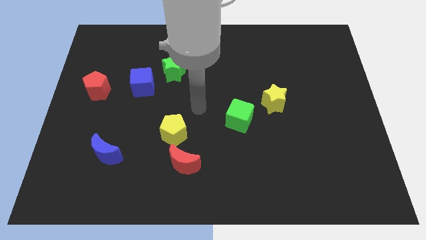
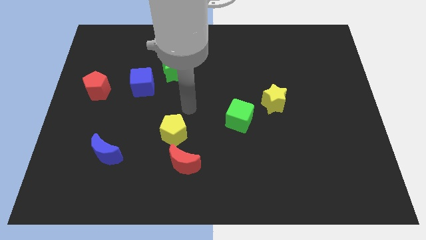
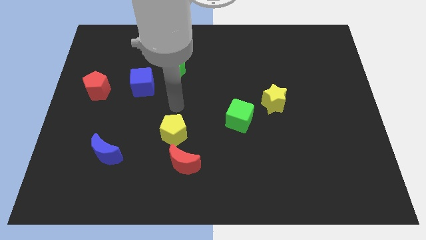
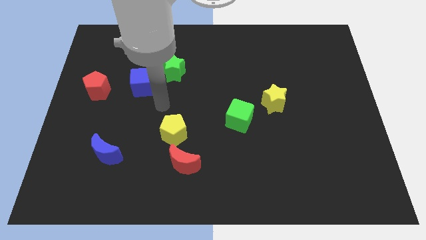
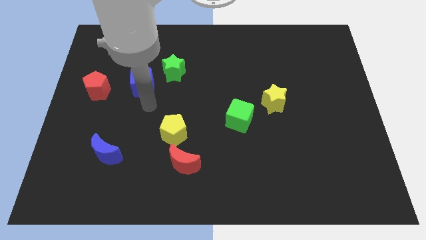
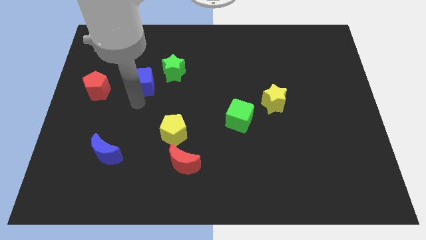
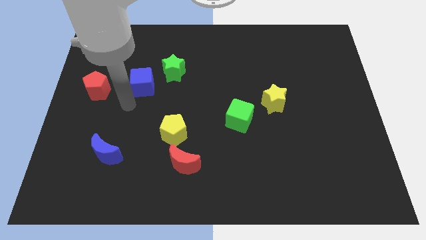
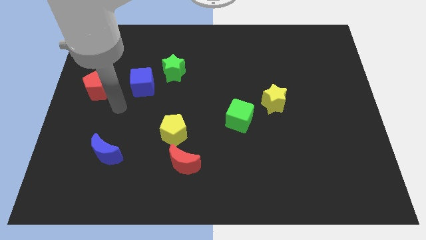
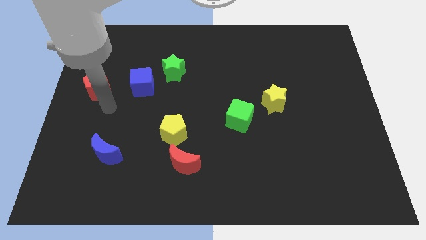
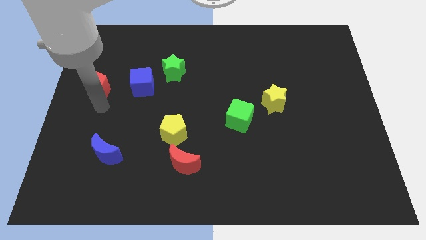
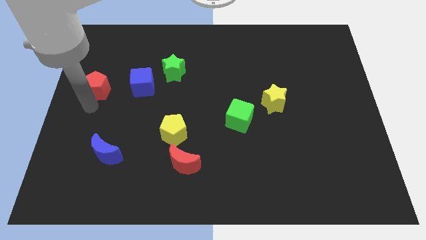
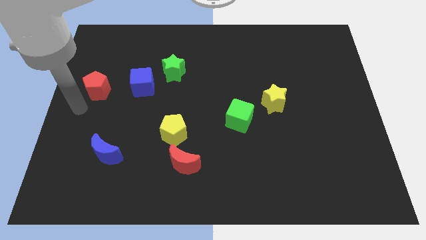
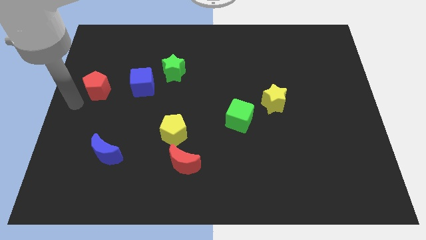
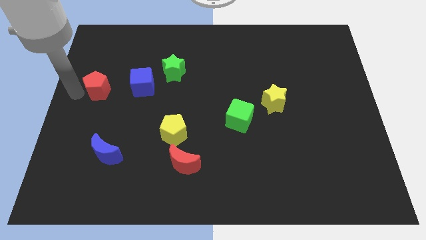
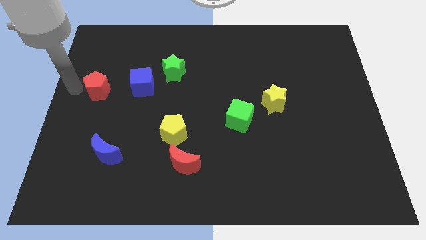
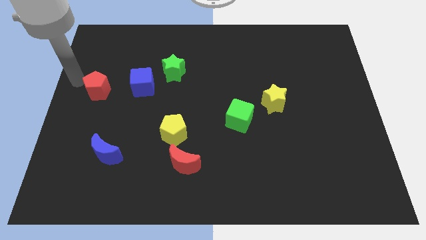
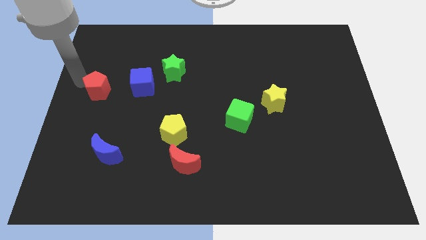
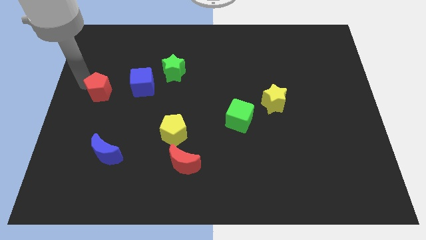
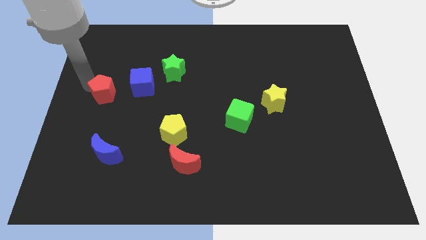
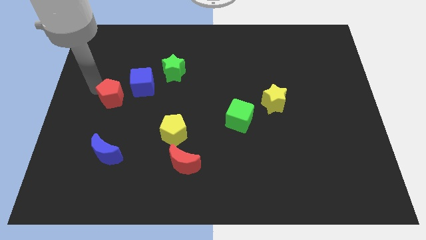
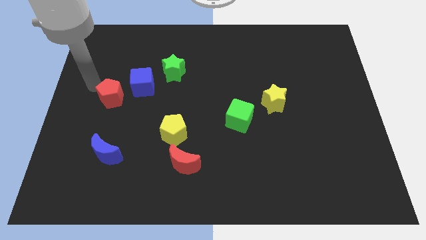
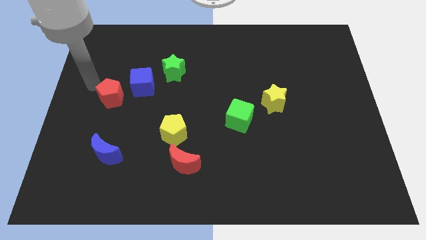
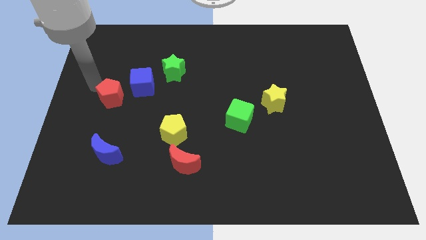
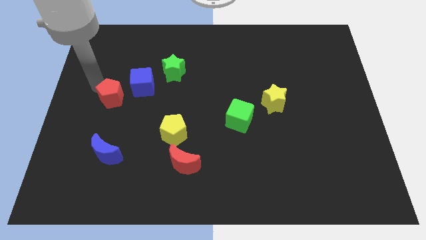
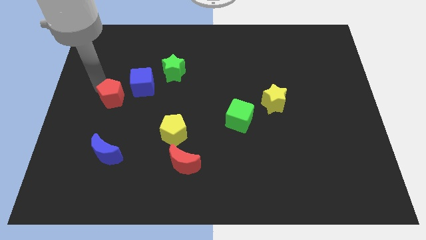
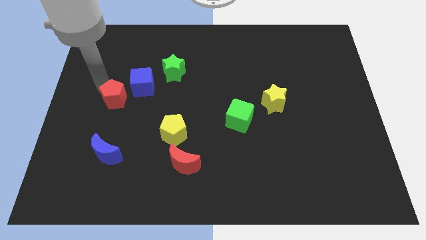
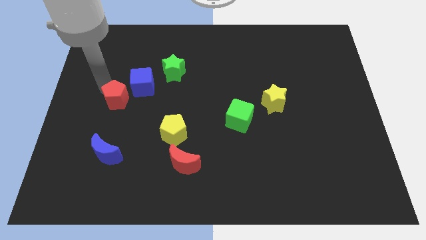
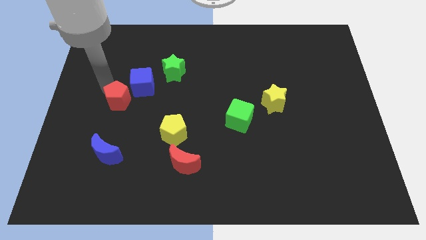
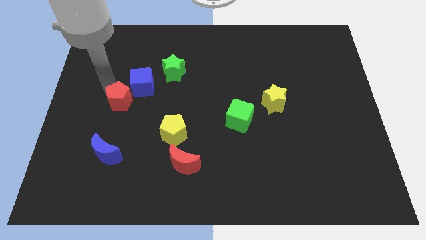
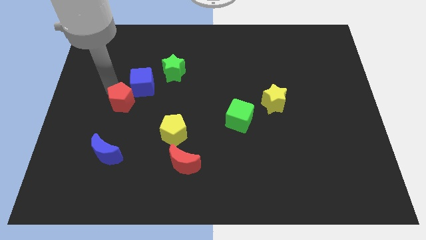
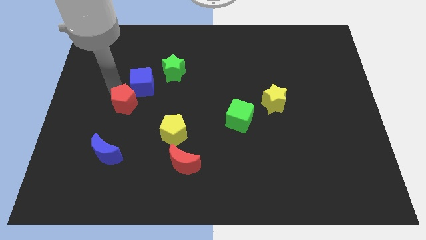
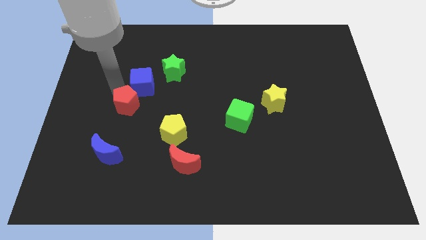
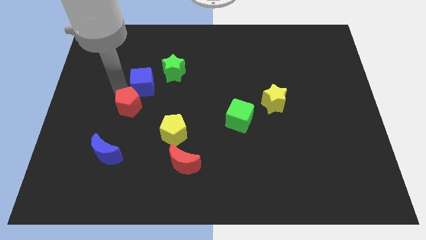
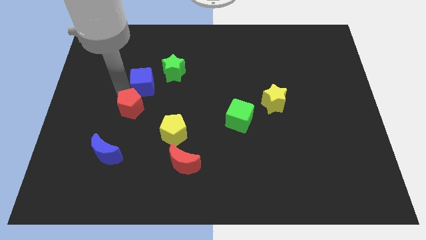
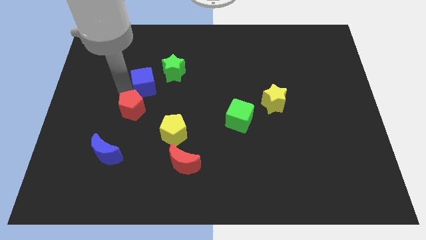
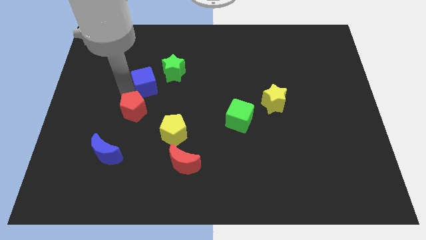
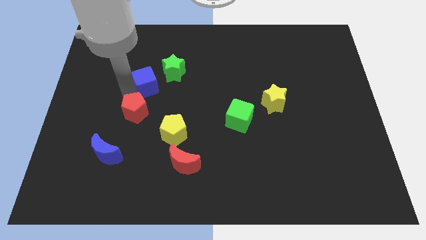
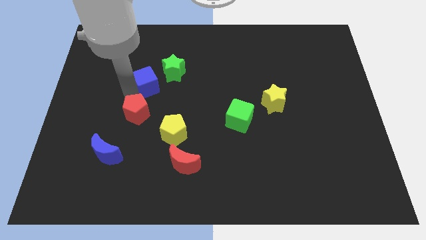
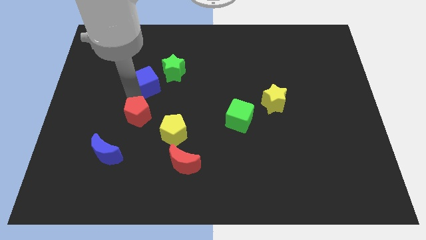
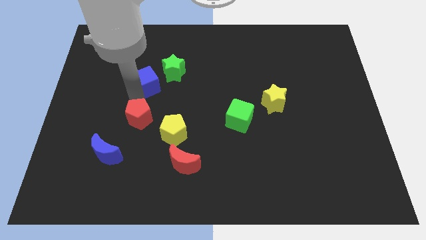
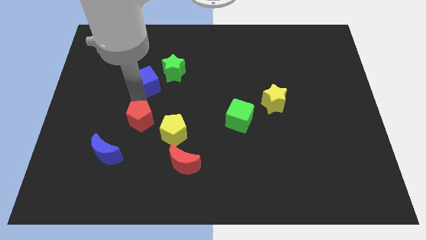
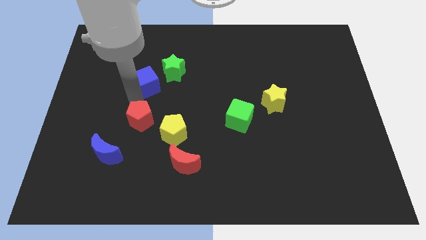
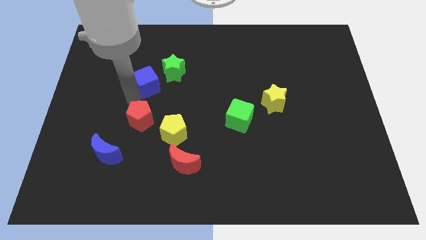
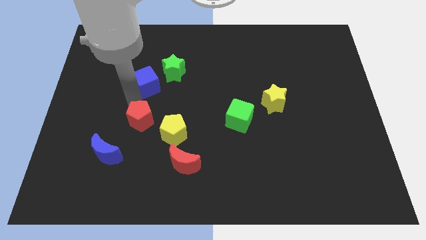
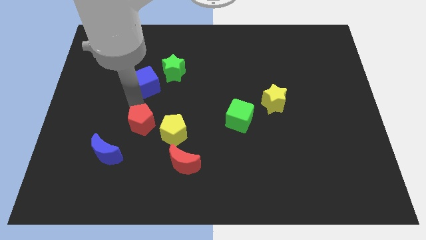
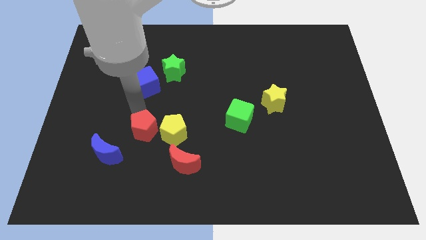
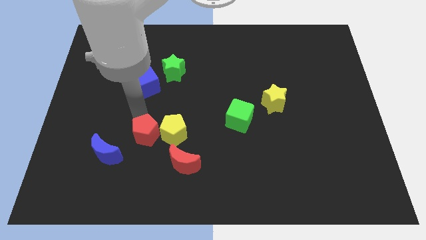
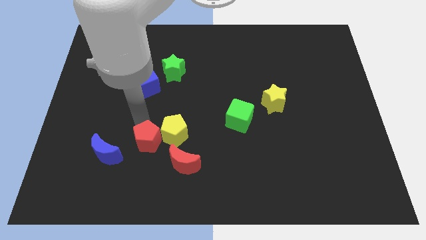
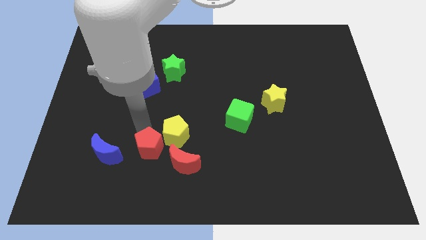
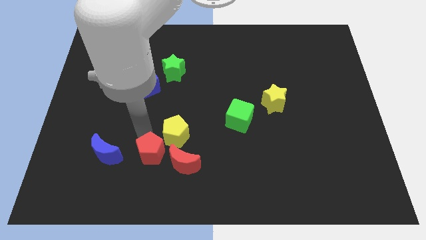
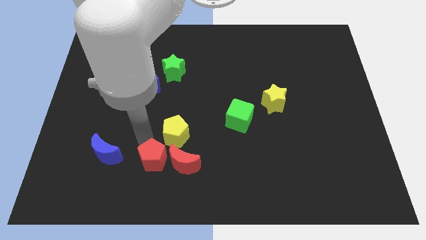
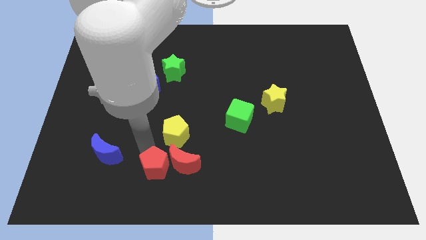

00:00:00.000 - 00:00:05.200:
move the red pentagon to the red moon

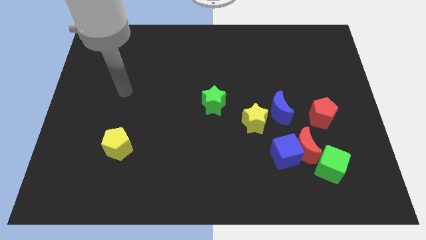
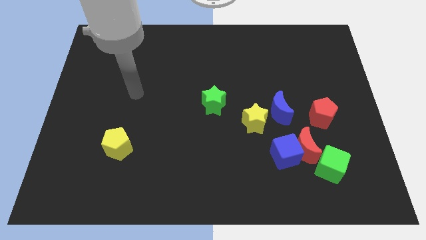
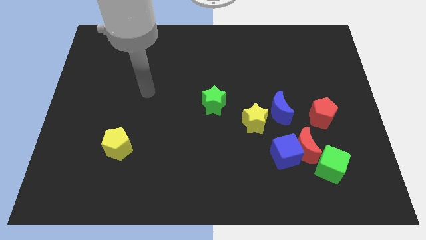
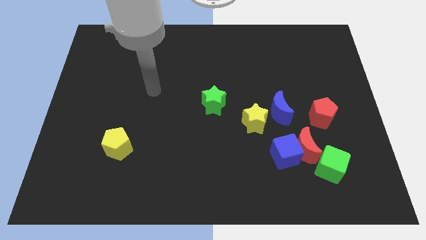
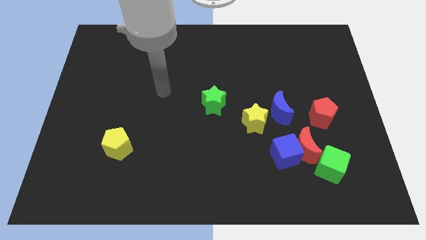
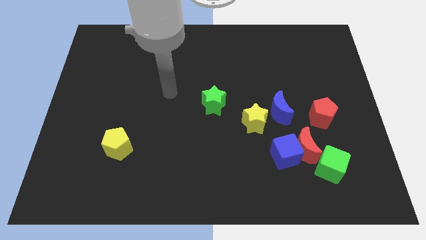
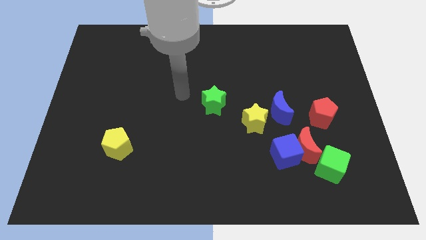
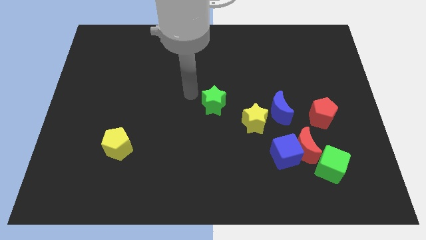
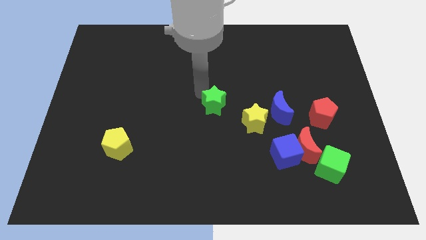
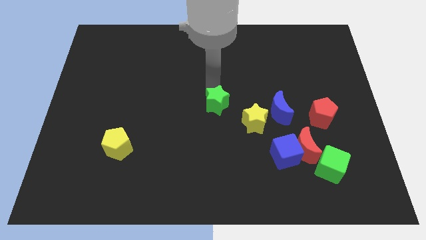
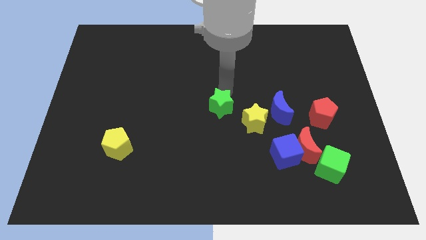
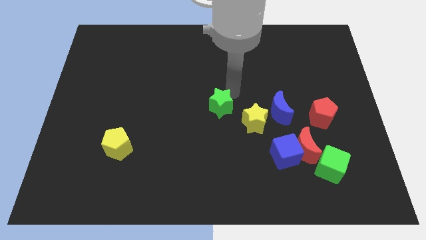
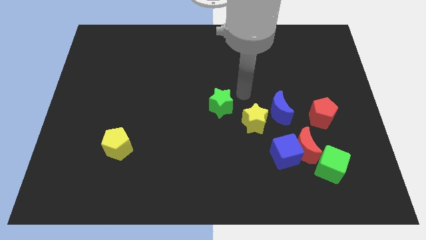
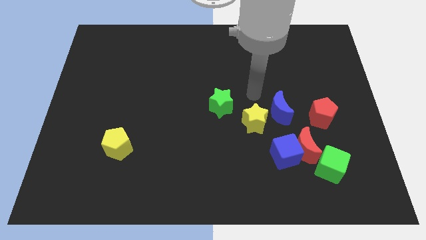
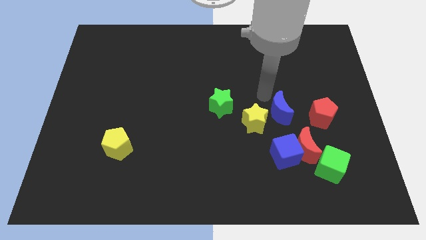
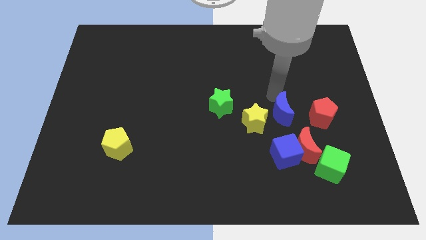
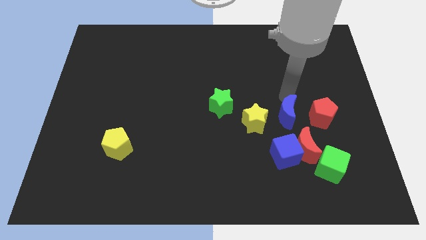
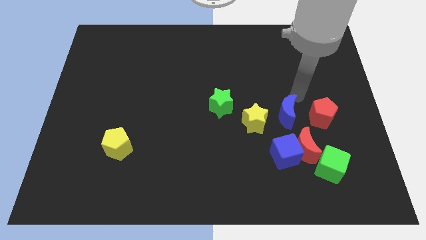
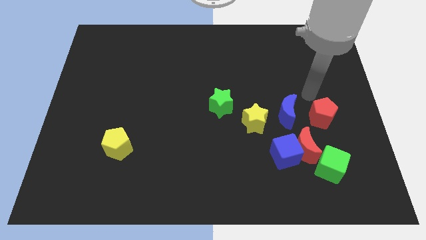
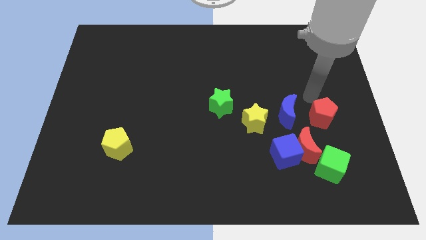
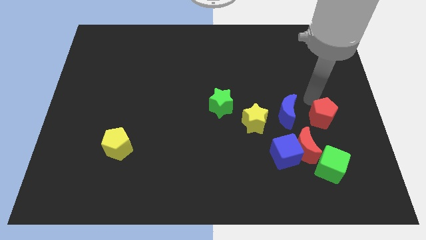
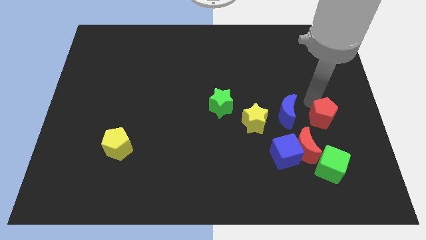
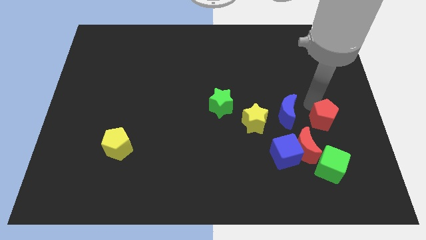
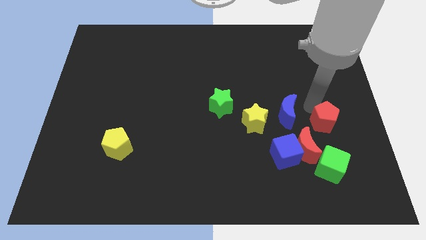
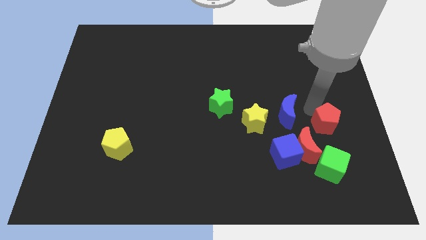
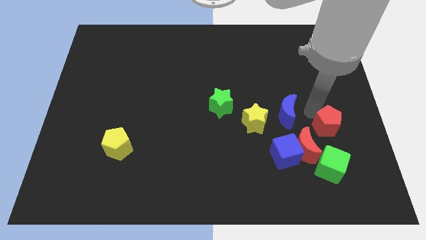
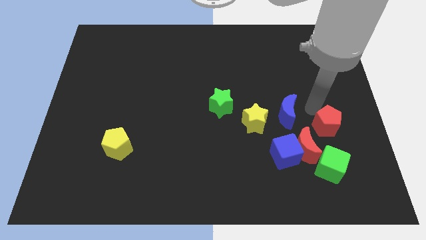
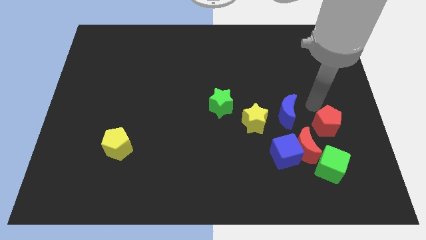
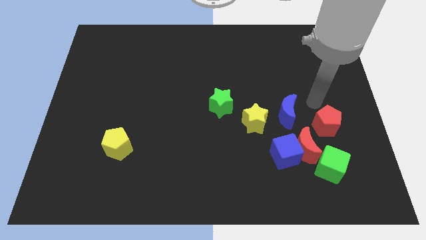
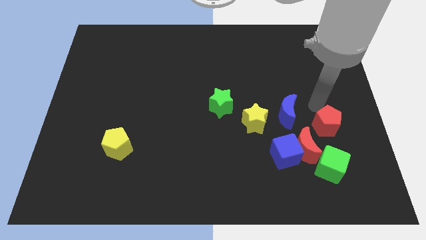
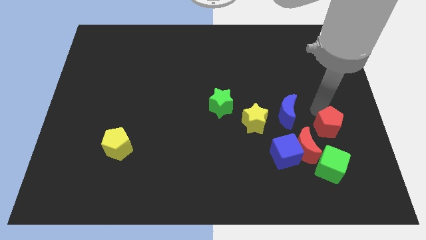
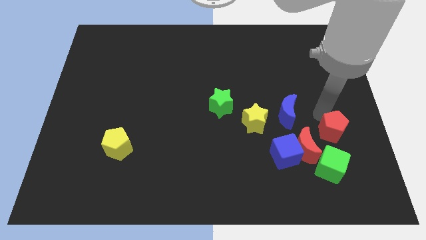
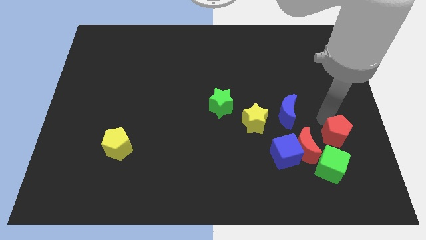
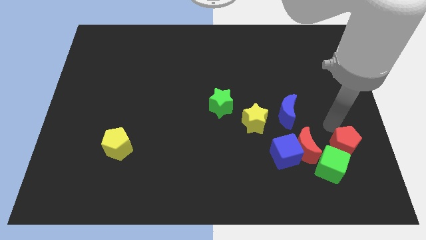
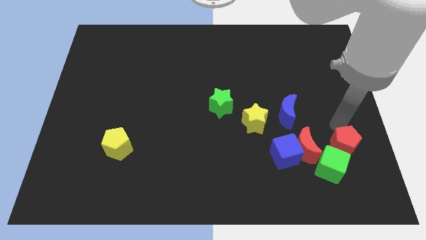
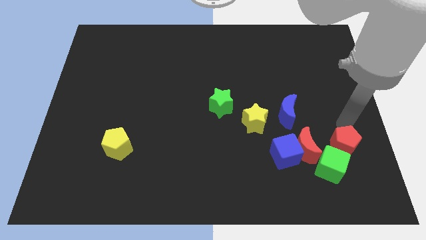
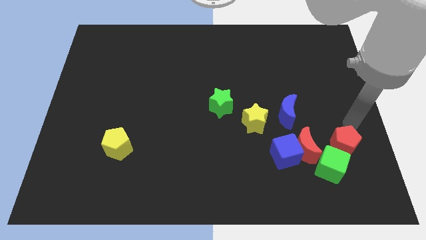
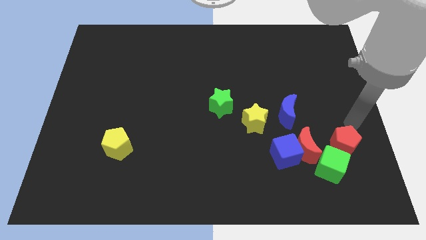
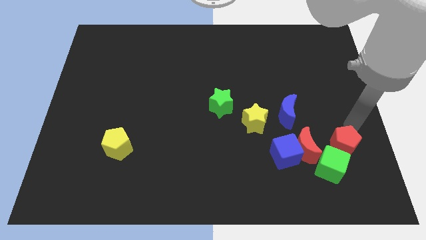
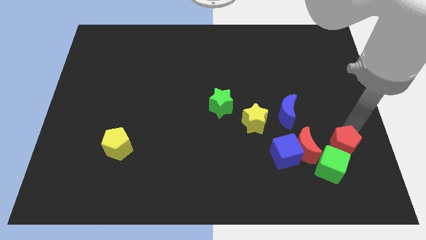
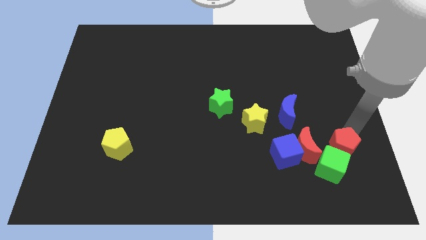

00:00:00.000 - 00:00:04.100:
put the red pentagon next to the green cube
